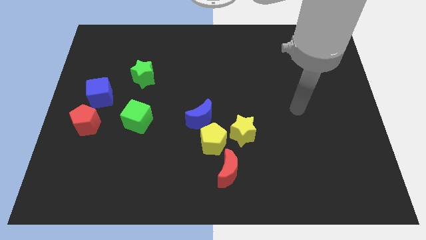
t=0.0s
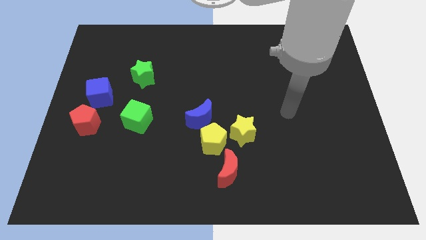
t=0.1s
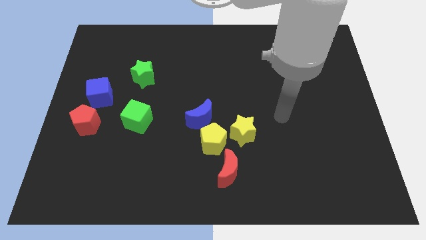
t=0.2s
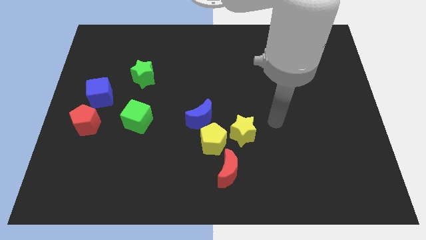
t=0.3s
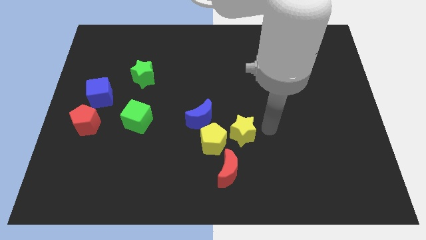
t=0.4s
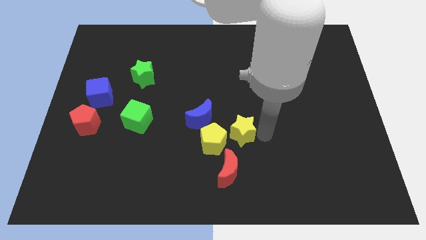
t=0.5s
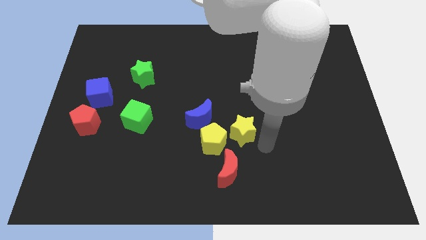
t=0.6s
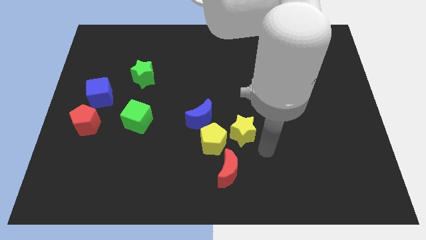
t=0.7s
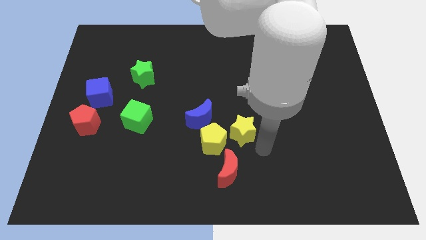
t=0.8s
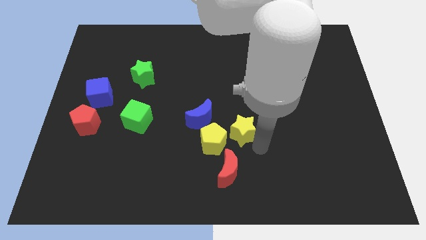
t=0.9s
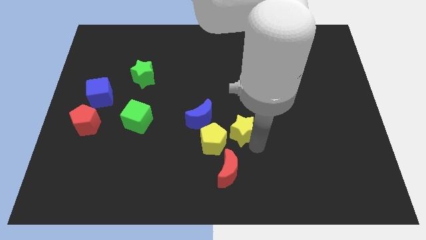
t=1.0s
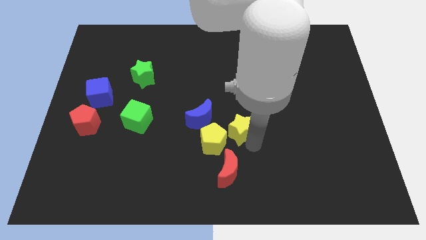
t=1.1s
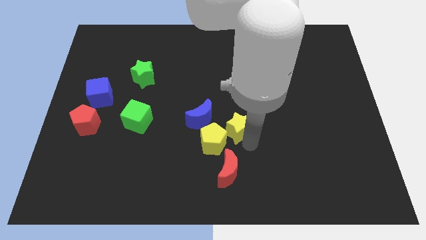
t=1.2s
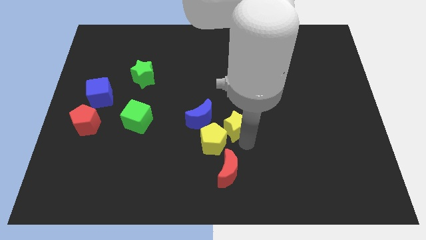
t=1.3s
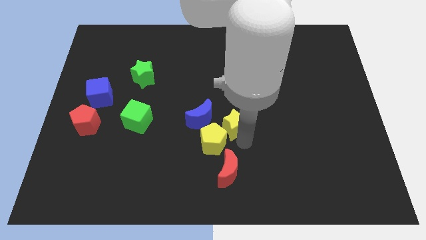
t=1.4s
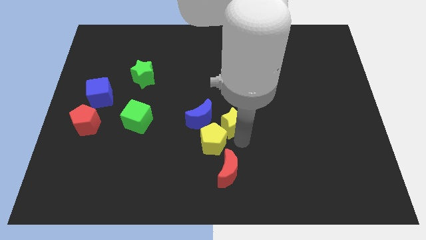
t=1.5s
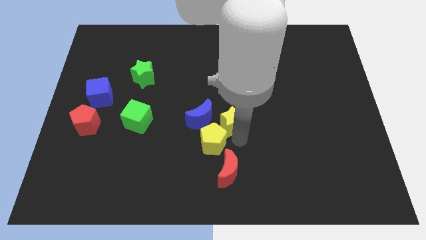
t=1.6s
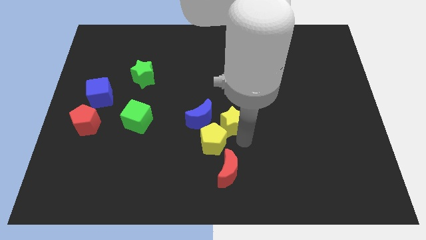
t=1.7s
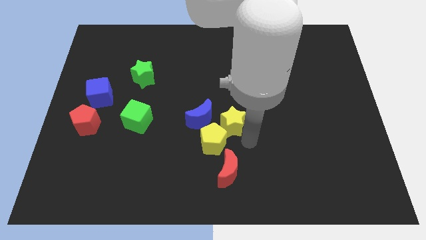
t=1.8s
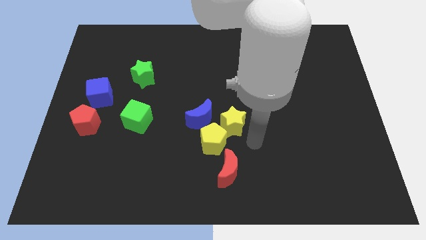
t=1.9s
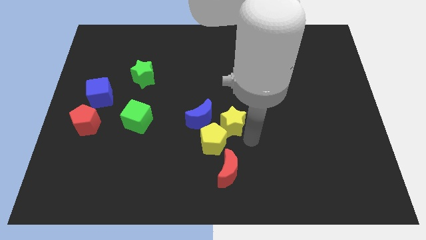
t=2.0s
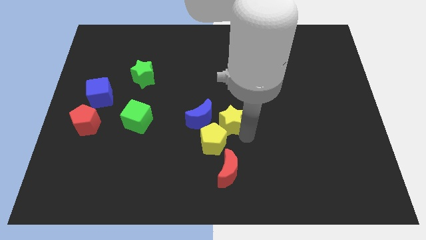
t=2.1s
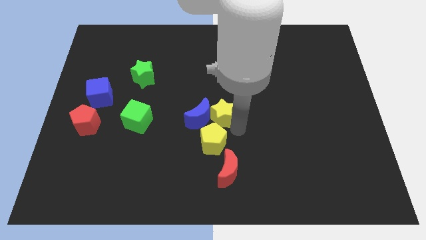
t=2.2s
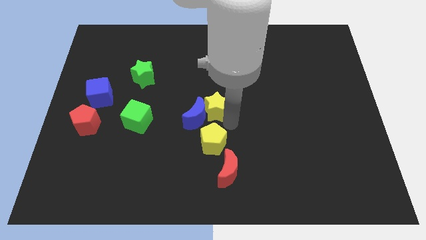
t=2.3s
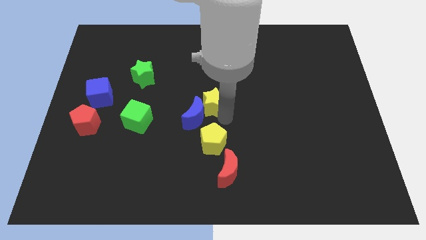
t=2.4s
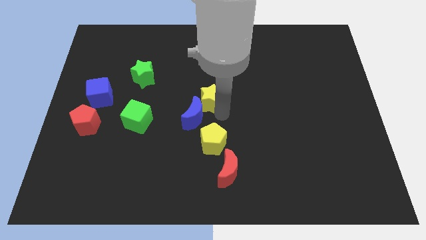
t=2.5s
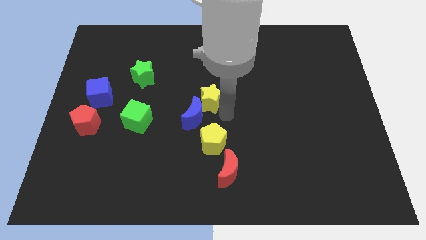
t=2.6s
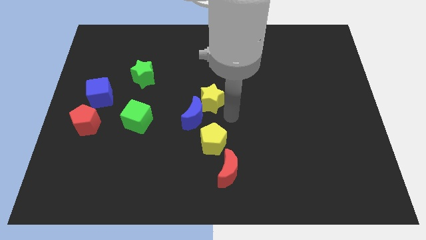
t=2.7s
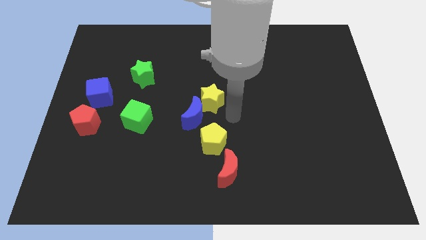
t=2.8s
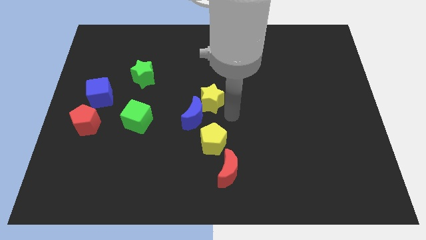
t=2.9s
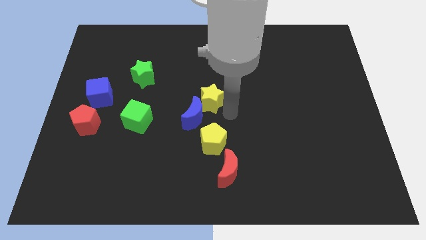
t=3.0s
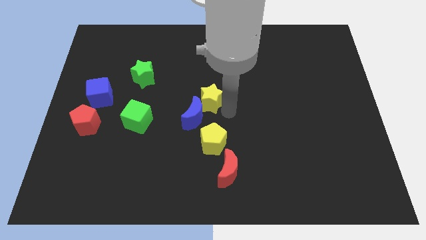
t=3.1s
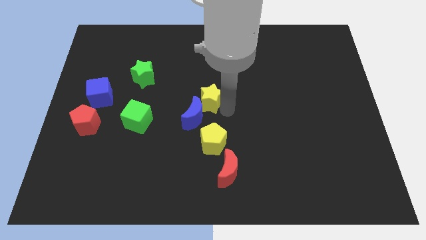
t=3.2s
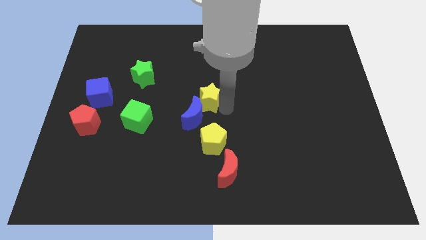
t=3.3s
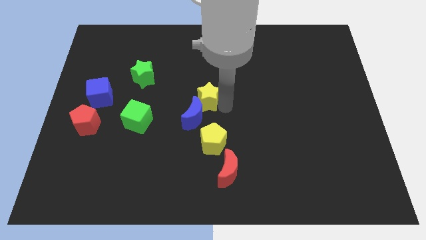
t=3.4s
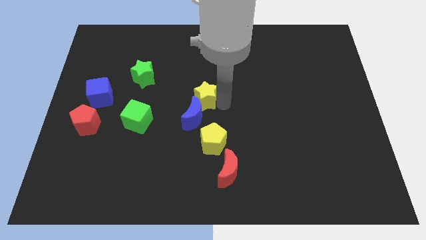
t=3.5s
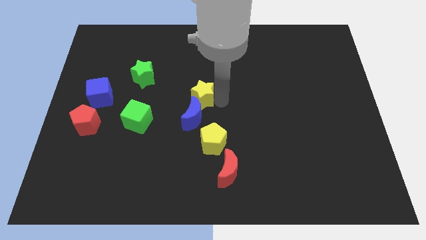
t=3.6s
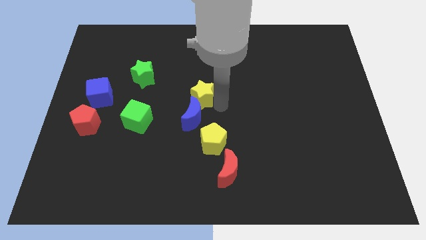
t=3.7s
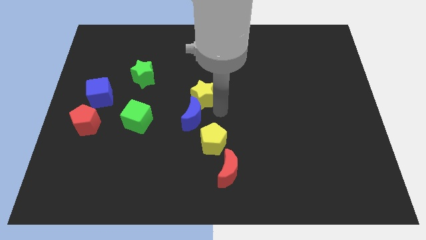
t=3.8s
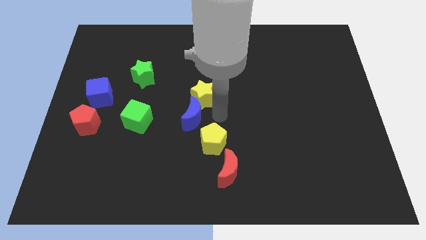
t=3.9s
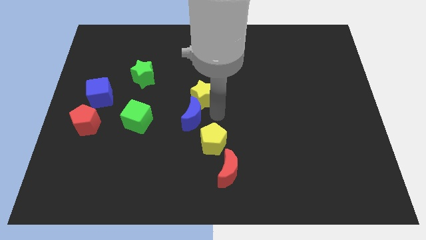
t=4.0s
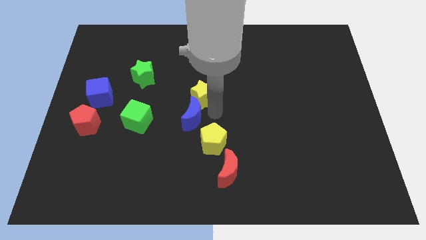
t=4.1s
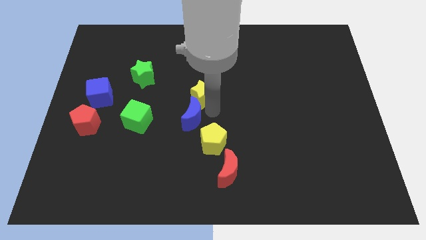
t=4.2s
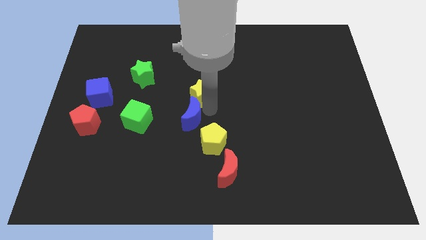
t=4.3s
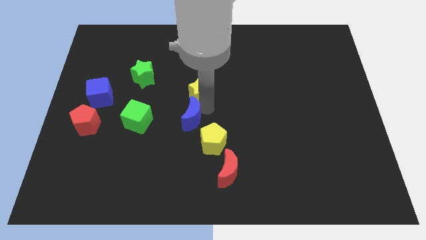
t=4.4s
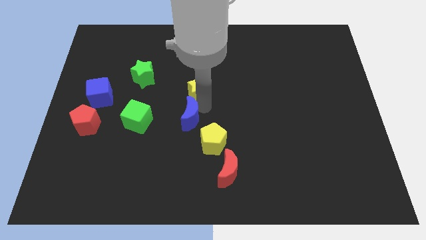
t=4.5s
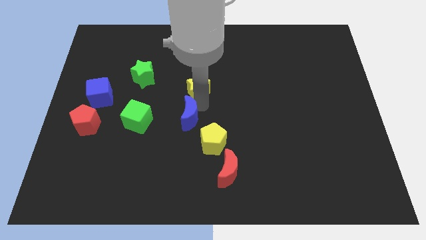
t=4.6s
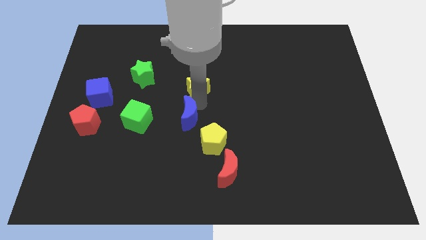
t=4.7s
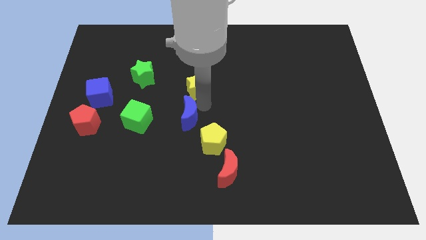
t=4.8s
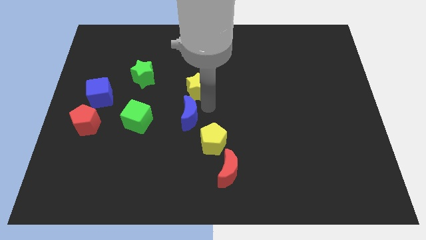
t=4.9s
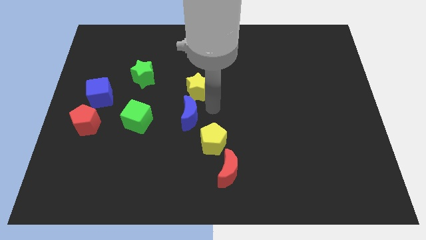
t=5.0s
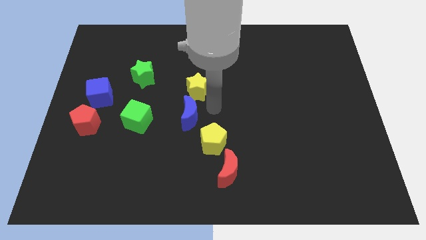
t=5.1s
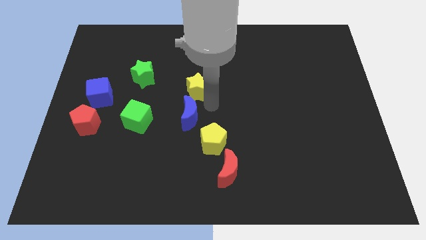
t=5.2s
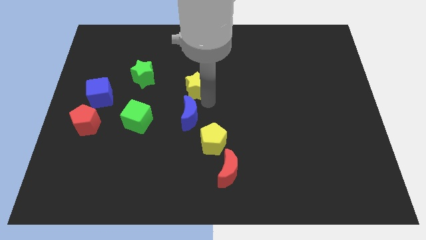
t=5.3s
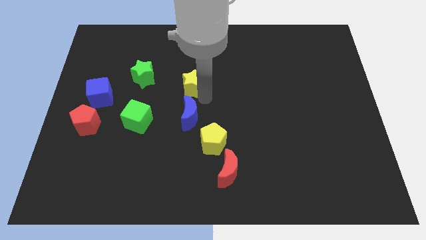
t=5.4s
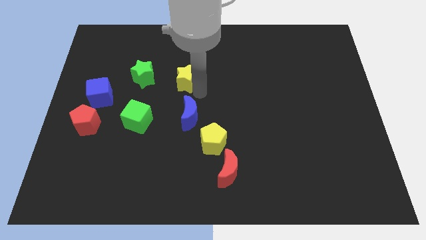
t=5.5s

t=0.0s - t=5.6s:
move the yellow star up and then left

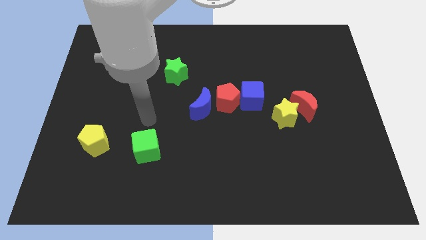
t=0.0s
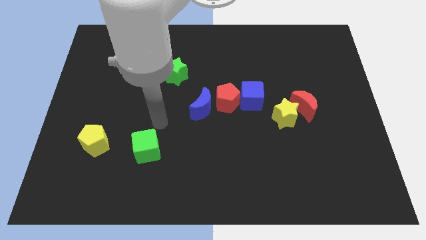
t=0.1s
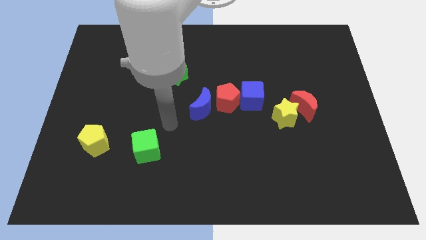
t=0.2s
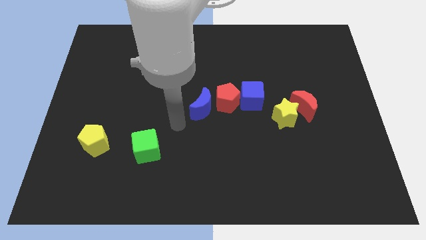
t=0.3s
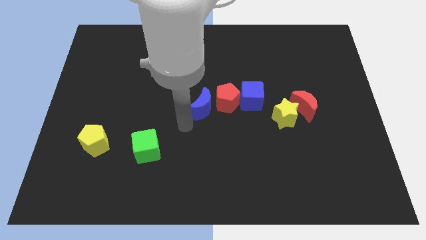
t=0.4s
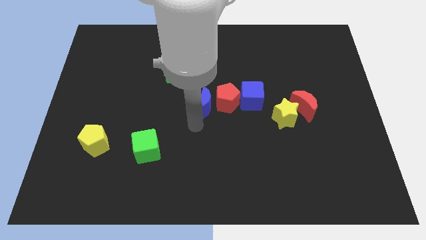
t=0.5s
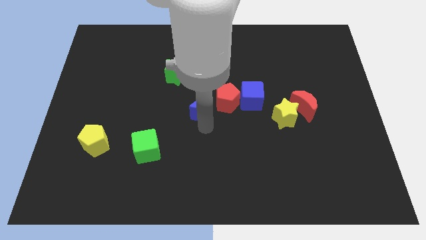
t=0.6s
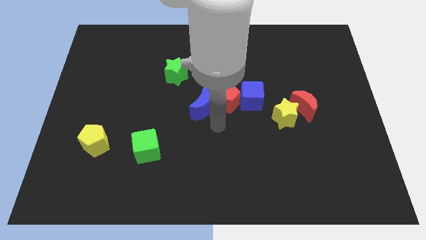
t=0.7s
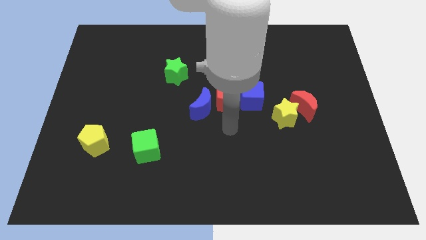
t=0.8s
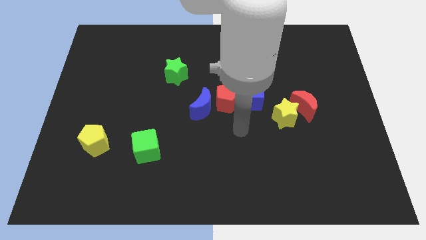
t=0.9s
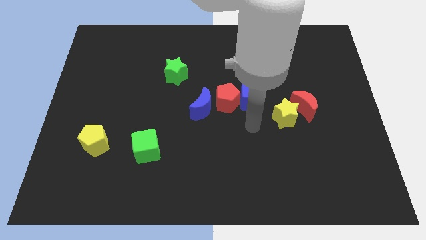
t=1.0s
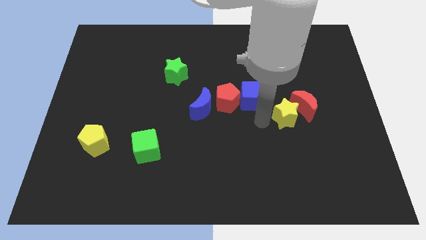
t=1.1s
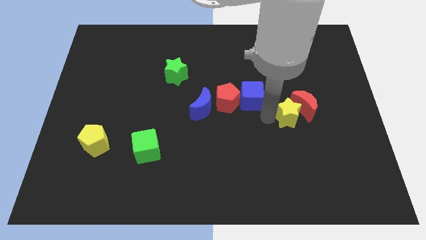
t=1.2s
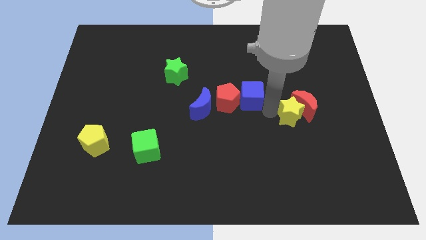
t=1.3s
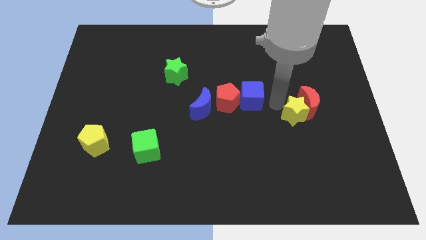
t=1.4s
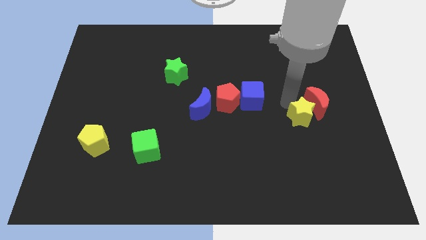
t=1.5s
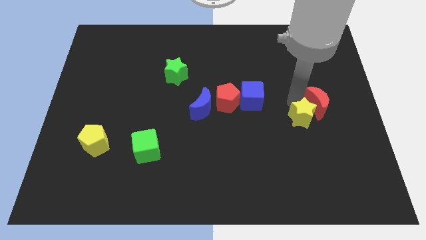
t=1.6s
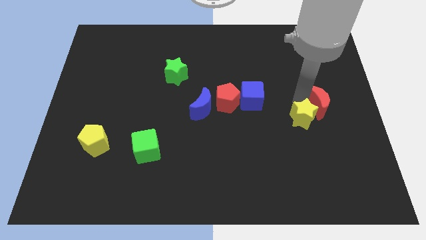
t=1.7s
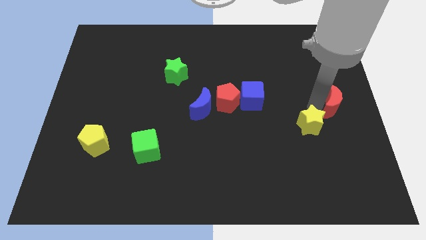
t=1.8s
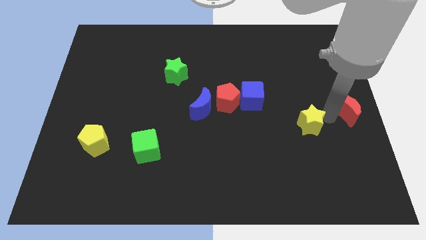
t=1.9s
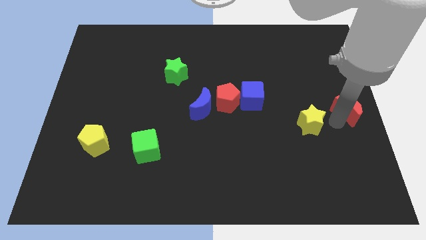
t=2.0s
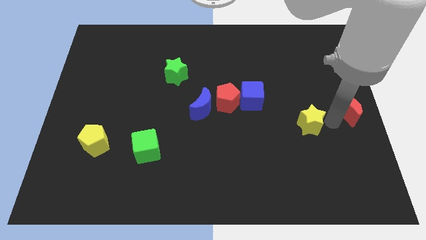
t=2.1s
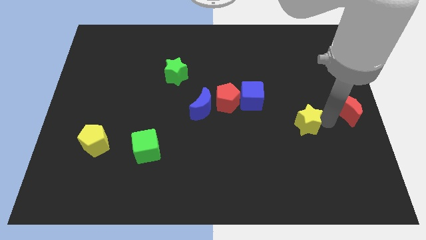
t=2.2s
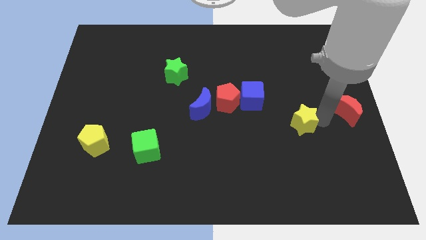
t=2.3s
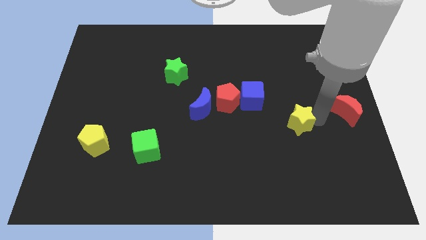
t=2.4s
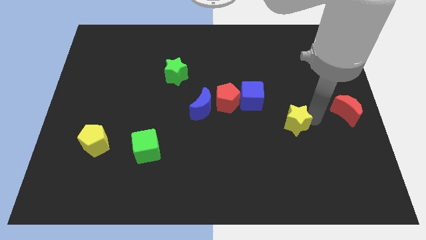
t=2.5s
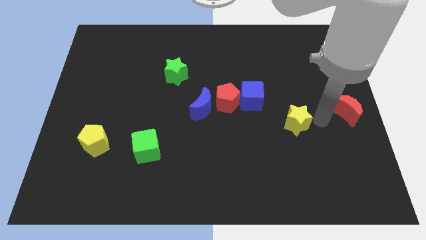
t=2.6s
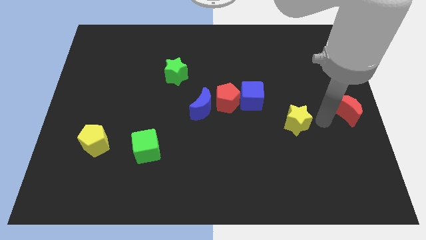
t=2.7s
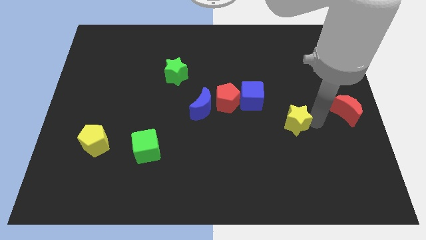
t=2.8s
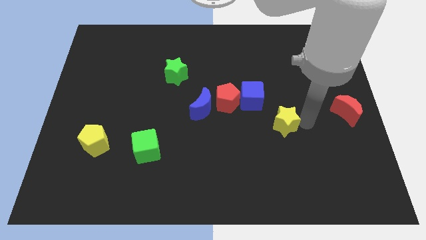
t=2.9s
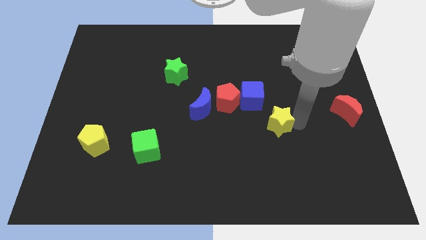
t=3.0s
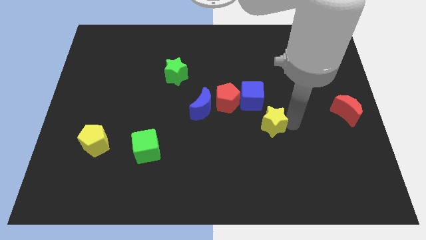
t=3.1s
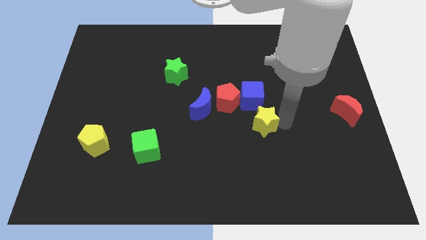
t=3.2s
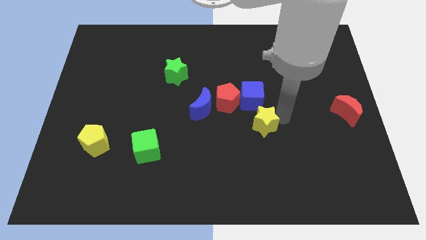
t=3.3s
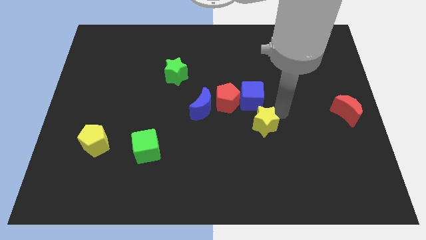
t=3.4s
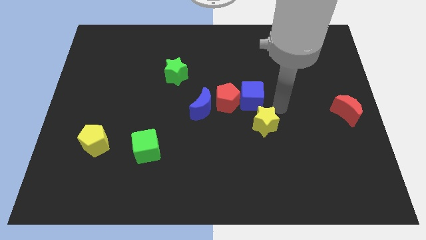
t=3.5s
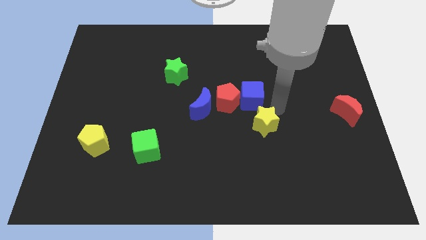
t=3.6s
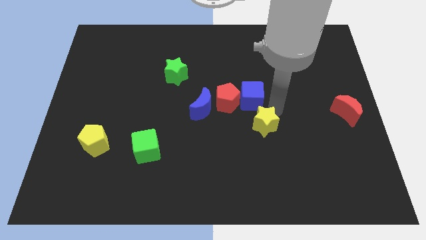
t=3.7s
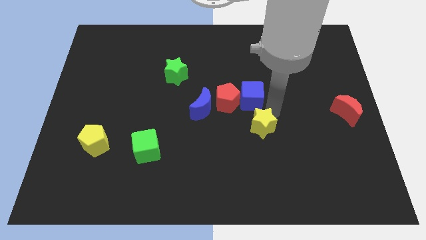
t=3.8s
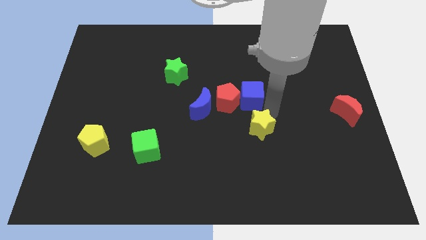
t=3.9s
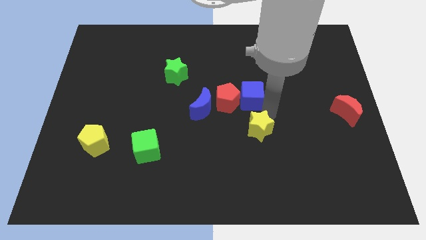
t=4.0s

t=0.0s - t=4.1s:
slightly push the yellow star down and left
